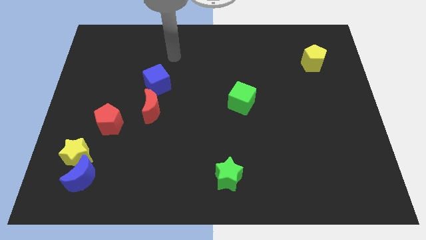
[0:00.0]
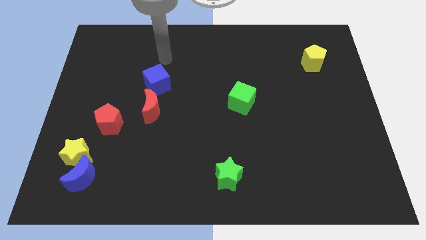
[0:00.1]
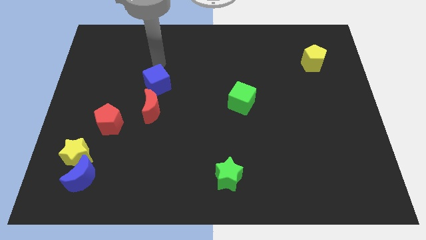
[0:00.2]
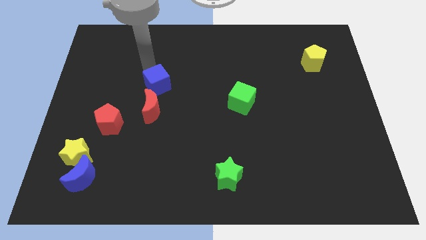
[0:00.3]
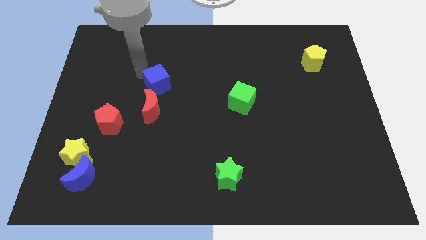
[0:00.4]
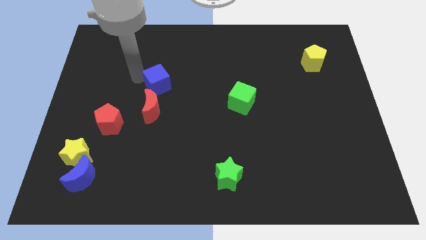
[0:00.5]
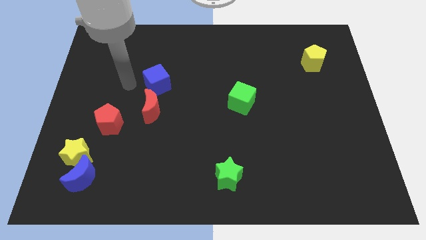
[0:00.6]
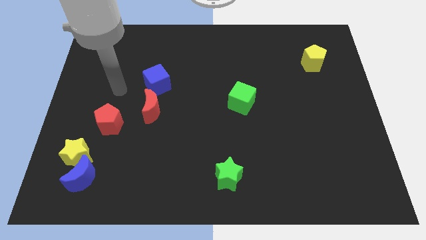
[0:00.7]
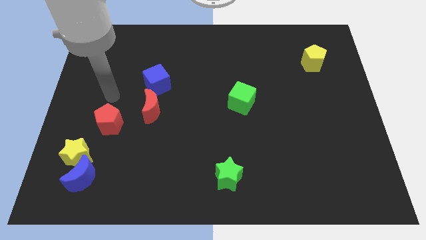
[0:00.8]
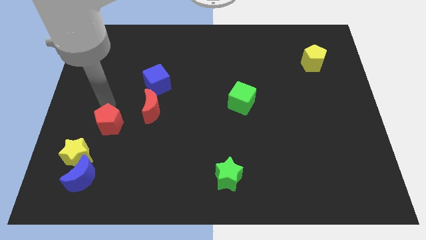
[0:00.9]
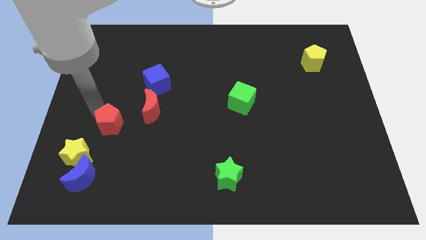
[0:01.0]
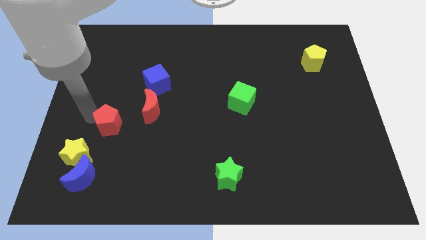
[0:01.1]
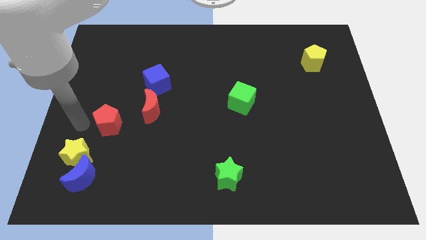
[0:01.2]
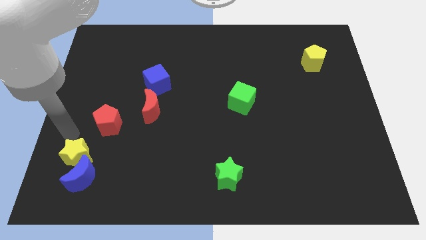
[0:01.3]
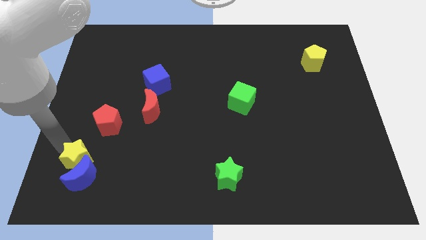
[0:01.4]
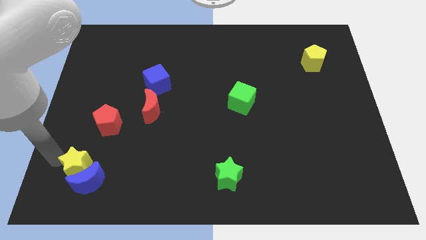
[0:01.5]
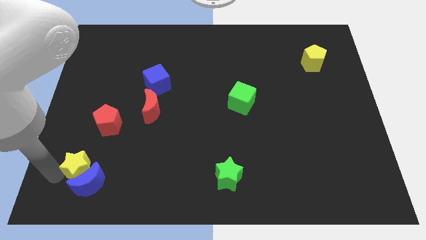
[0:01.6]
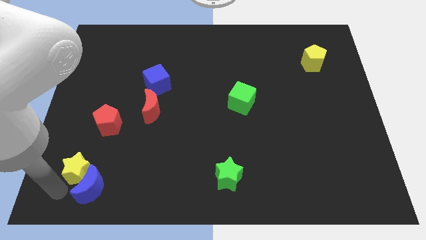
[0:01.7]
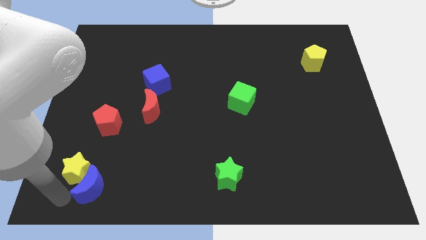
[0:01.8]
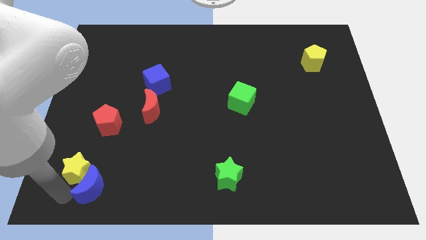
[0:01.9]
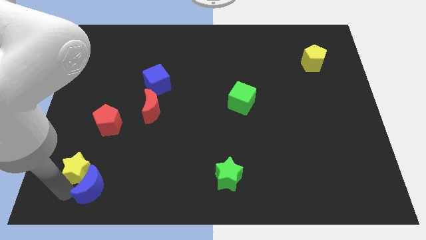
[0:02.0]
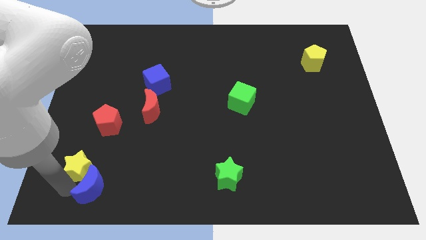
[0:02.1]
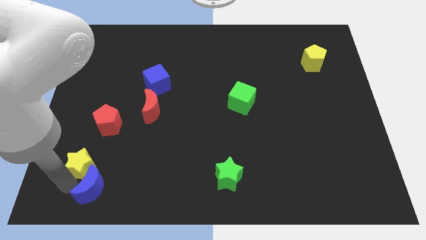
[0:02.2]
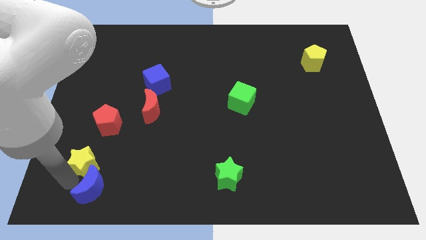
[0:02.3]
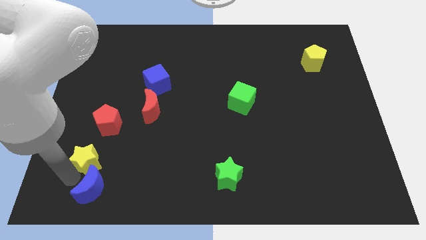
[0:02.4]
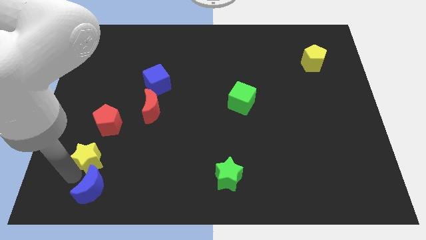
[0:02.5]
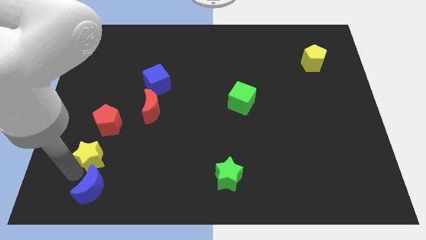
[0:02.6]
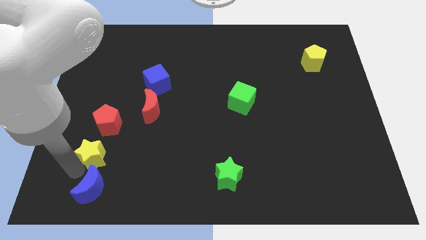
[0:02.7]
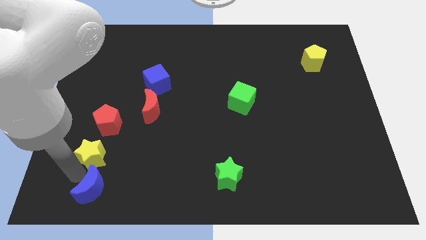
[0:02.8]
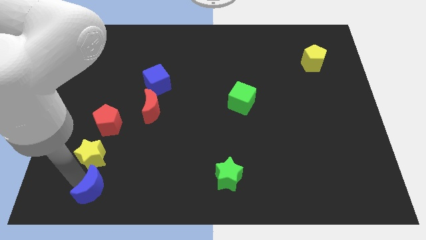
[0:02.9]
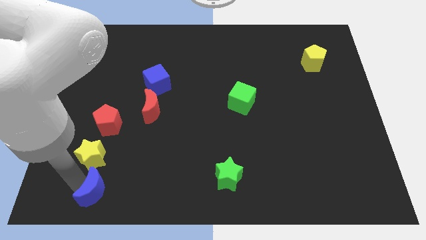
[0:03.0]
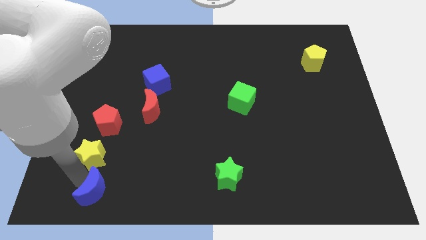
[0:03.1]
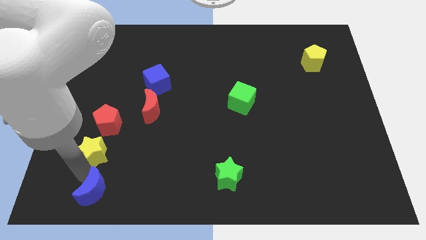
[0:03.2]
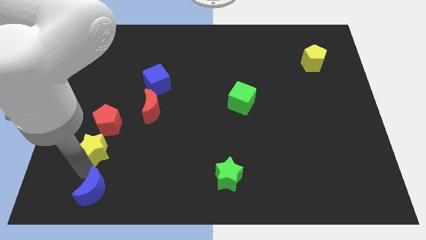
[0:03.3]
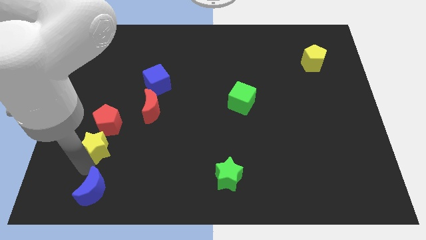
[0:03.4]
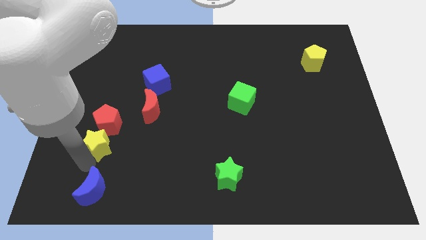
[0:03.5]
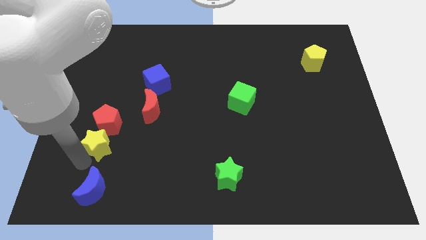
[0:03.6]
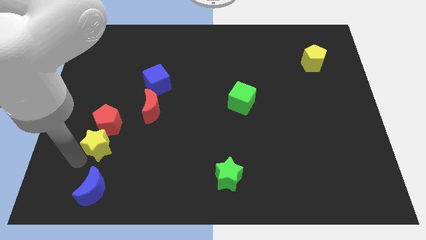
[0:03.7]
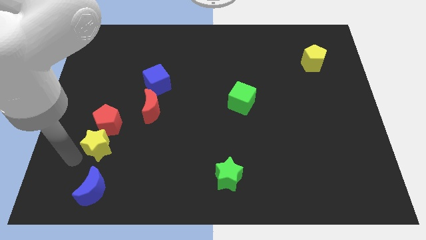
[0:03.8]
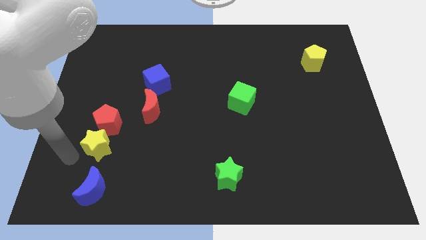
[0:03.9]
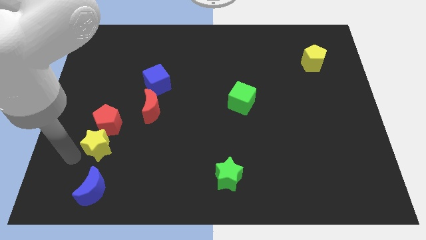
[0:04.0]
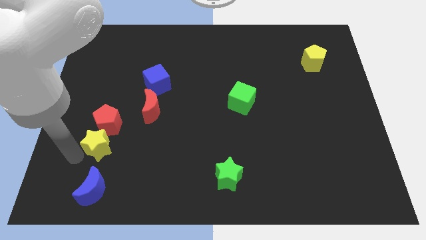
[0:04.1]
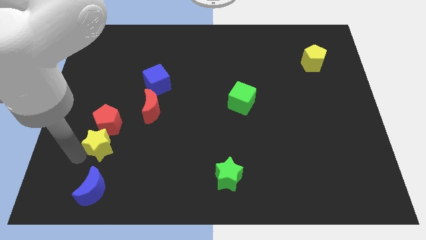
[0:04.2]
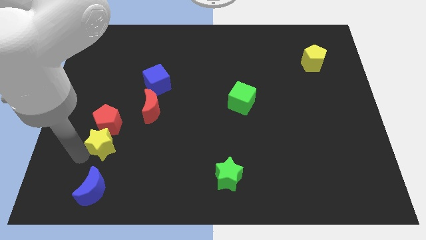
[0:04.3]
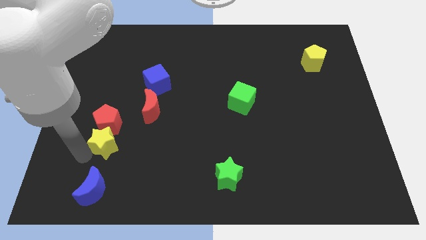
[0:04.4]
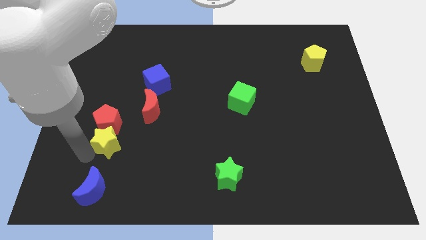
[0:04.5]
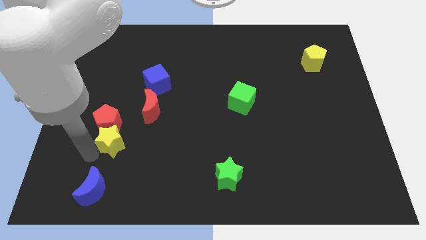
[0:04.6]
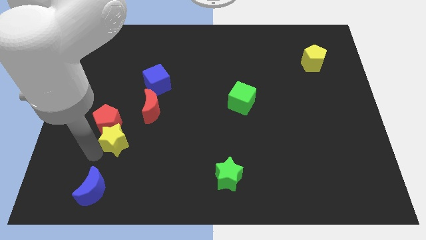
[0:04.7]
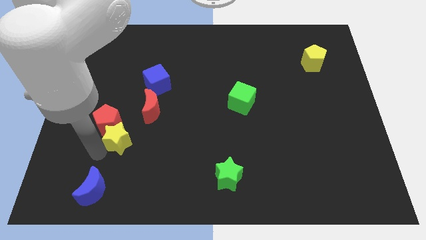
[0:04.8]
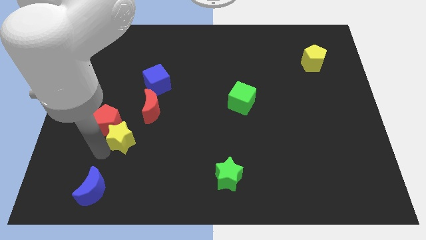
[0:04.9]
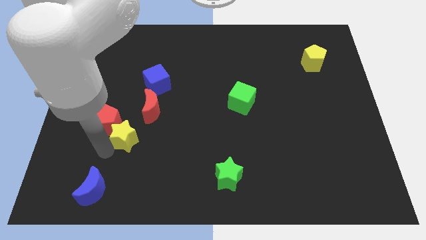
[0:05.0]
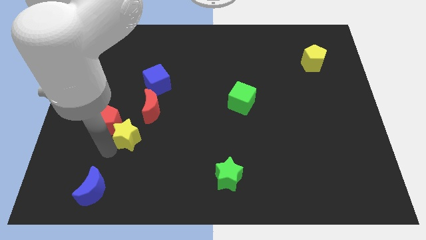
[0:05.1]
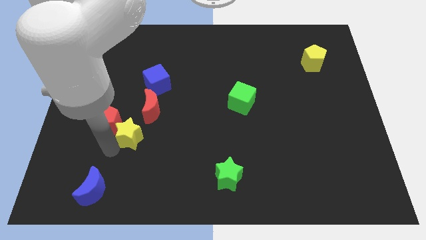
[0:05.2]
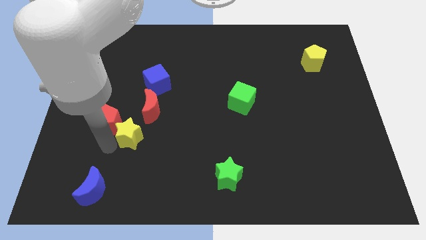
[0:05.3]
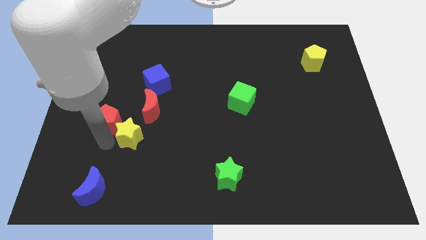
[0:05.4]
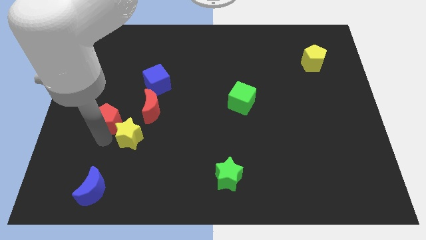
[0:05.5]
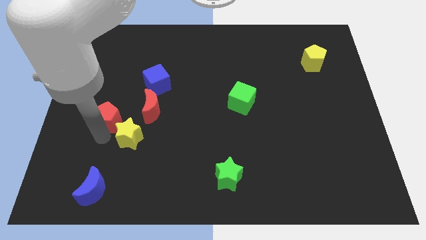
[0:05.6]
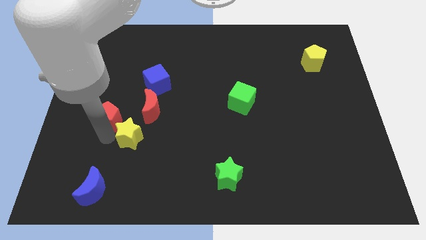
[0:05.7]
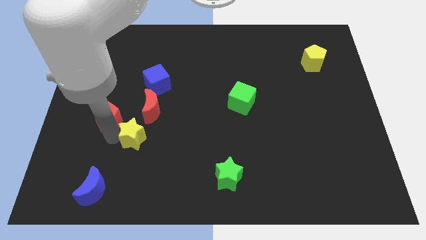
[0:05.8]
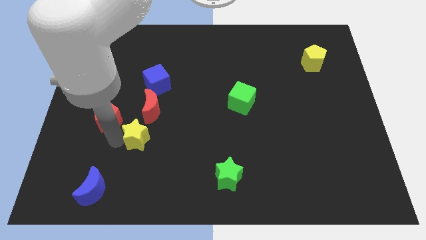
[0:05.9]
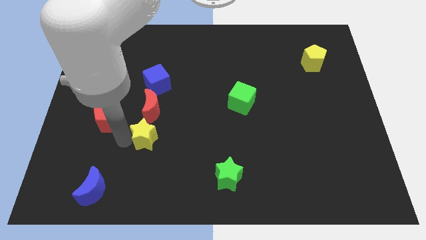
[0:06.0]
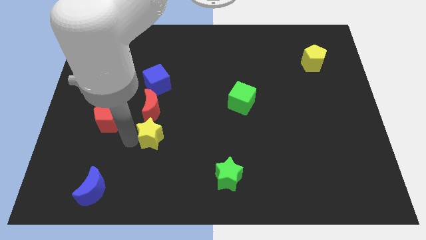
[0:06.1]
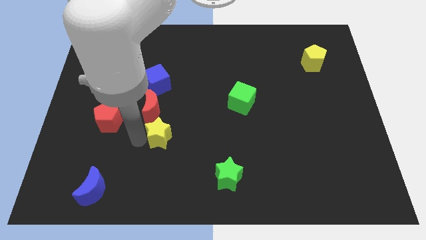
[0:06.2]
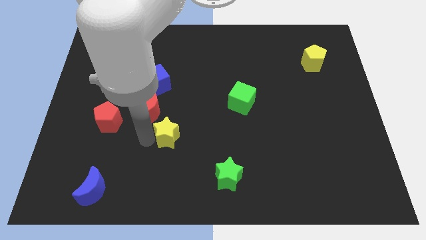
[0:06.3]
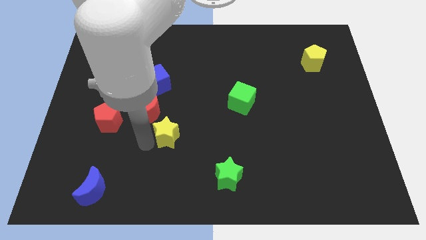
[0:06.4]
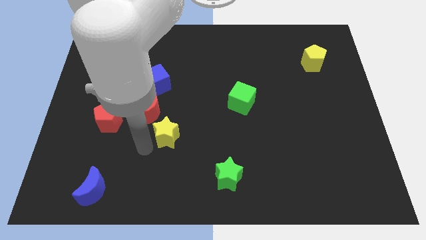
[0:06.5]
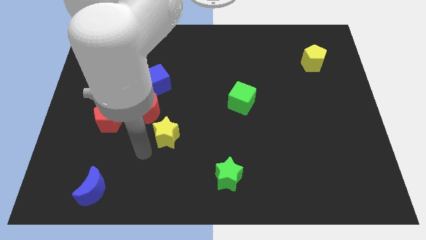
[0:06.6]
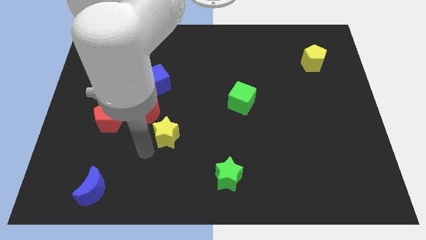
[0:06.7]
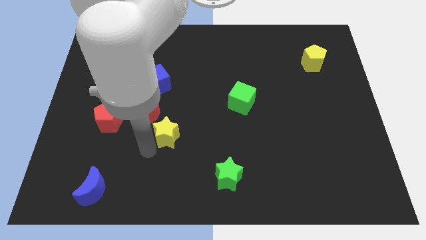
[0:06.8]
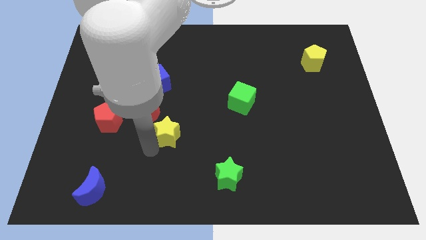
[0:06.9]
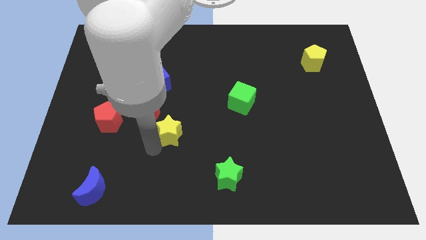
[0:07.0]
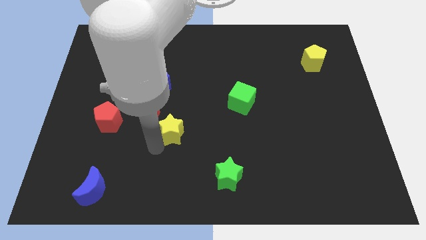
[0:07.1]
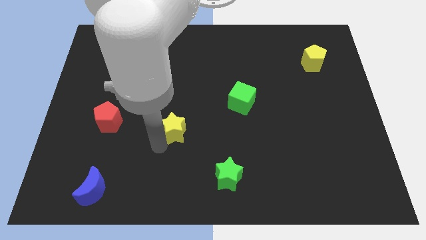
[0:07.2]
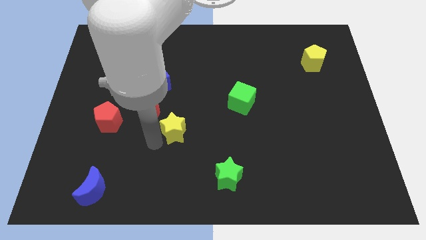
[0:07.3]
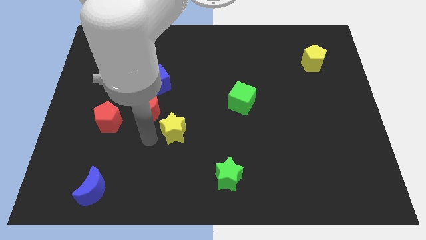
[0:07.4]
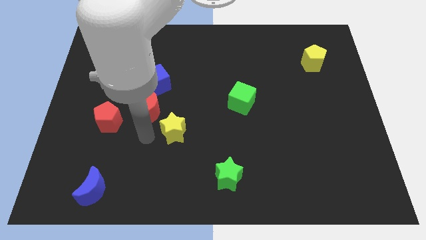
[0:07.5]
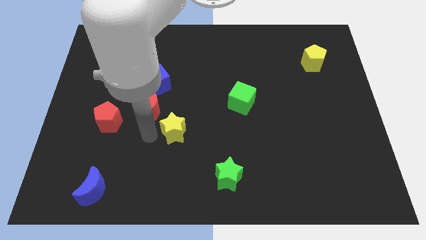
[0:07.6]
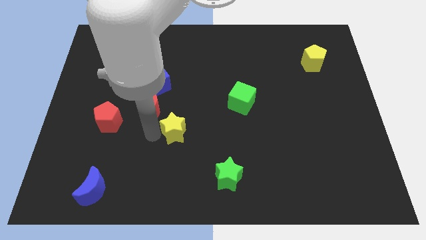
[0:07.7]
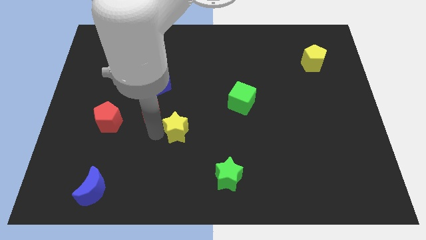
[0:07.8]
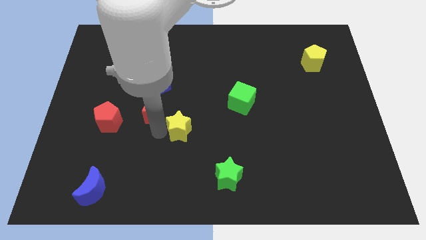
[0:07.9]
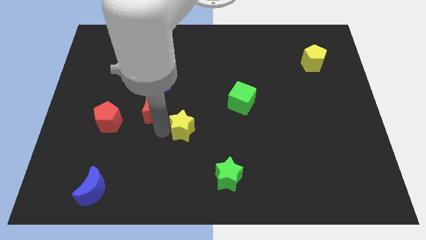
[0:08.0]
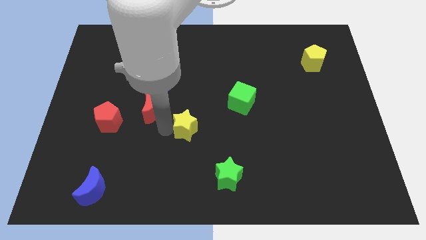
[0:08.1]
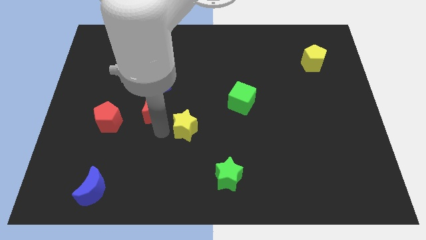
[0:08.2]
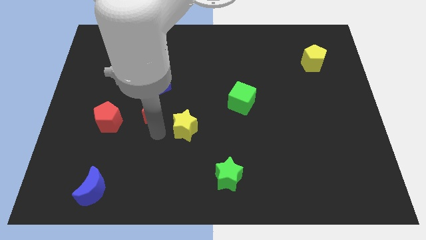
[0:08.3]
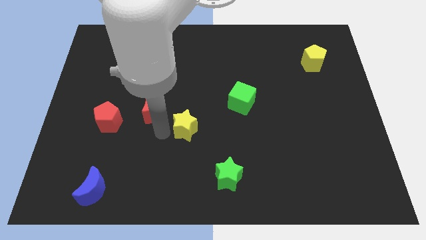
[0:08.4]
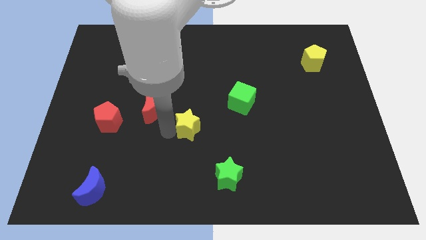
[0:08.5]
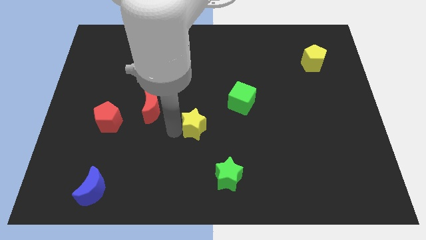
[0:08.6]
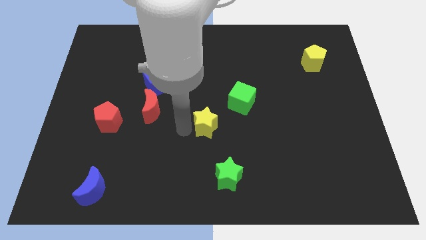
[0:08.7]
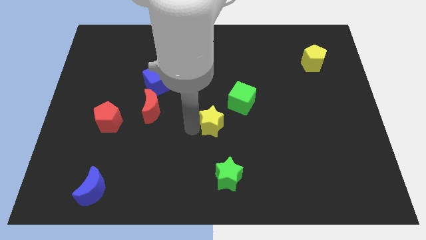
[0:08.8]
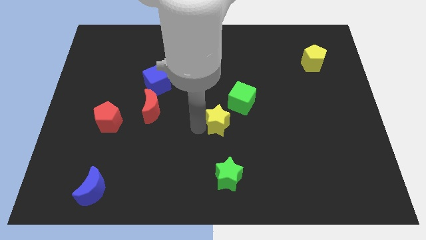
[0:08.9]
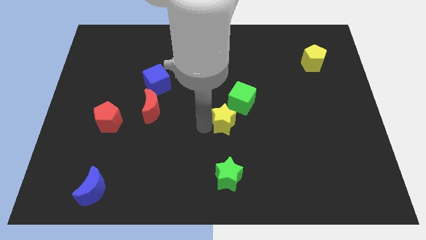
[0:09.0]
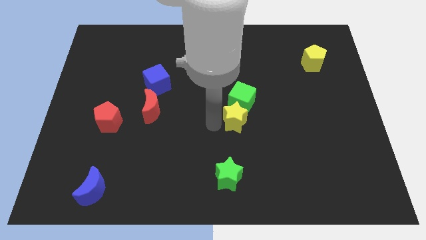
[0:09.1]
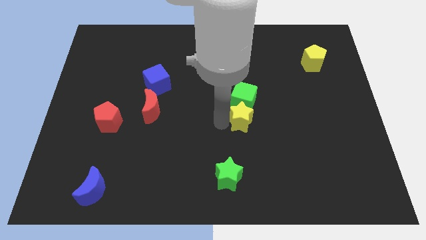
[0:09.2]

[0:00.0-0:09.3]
push the yellow star diagonally down and to the right of the green cube
